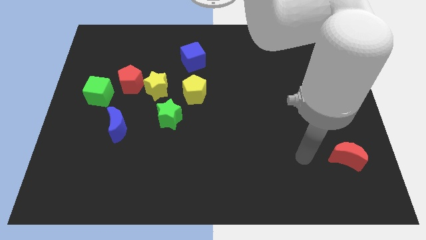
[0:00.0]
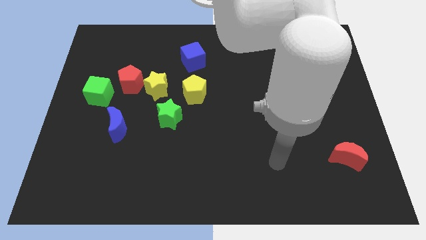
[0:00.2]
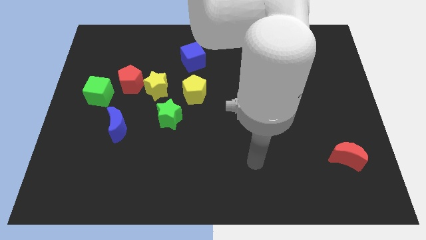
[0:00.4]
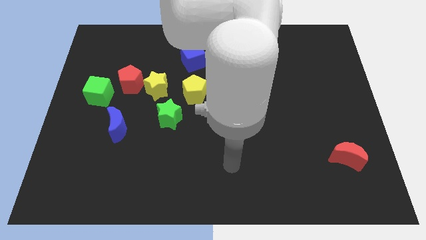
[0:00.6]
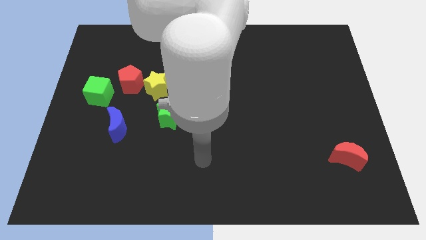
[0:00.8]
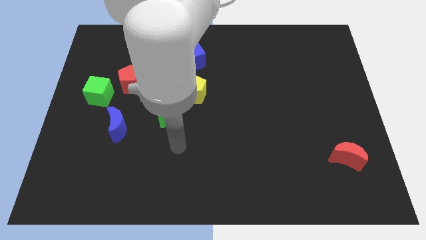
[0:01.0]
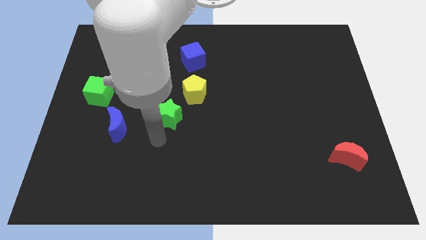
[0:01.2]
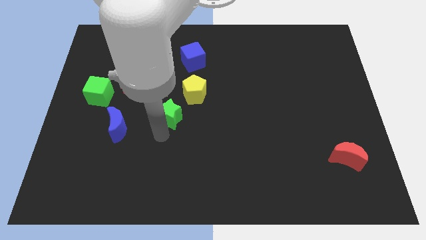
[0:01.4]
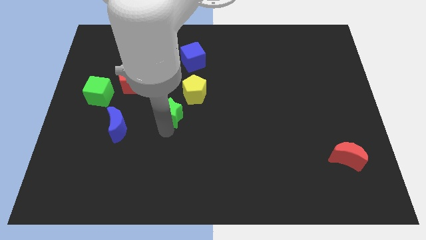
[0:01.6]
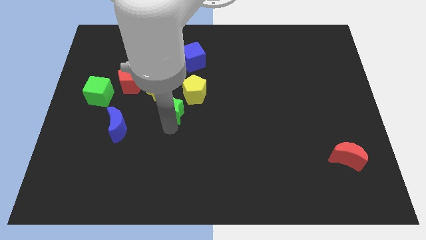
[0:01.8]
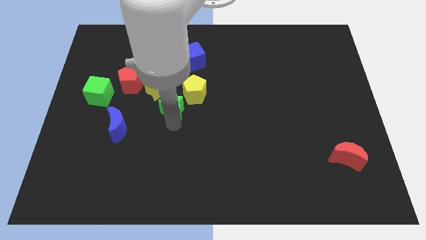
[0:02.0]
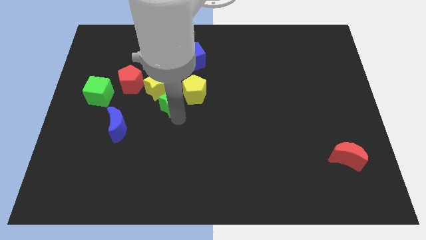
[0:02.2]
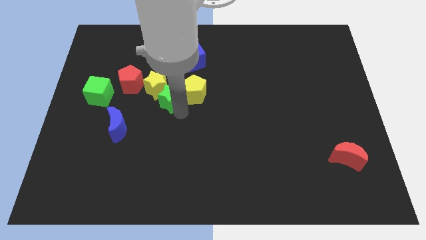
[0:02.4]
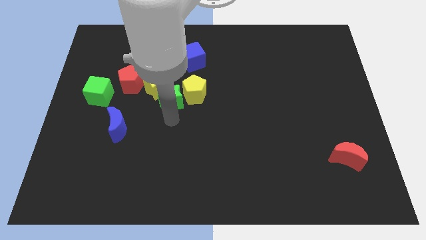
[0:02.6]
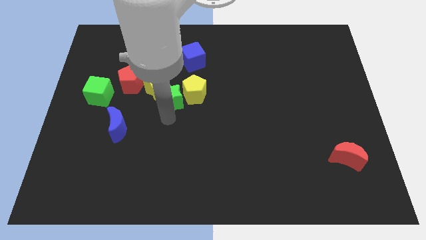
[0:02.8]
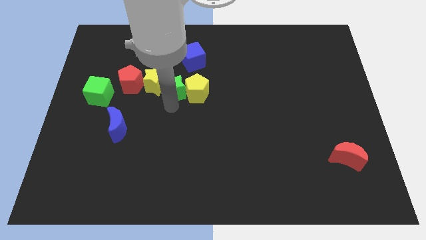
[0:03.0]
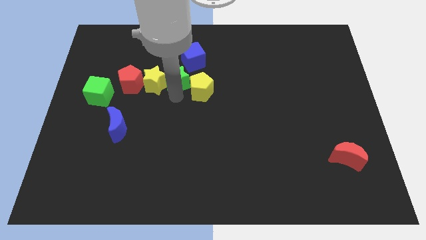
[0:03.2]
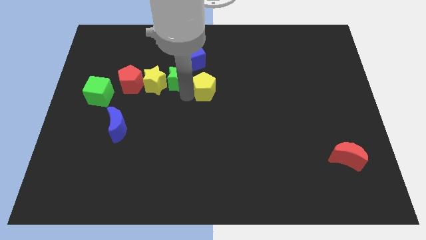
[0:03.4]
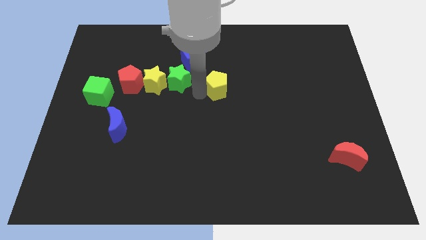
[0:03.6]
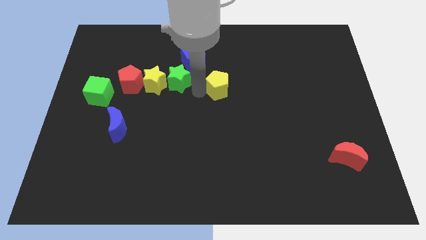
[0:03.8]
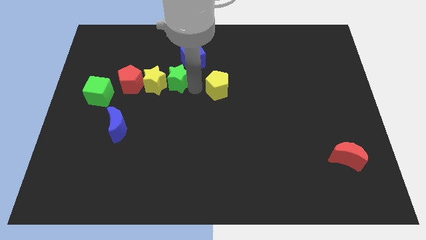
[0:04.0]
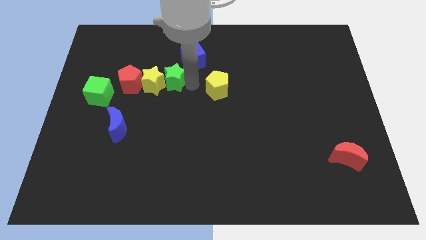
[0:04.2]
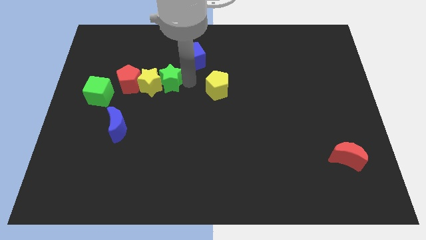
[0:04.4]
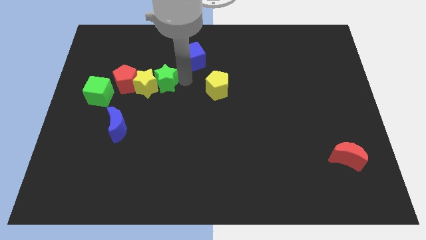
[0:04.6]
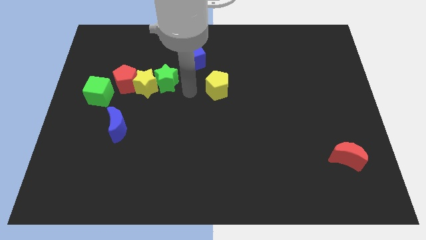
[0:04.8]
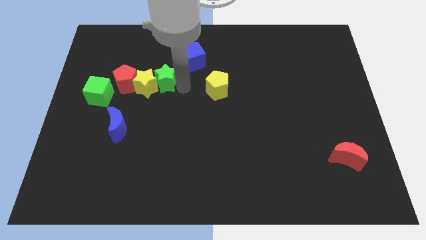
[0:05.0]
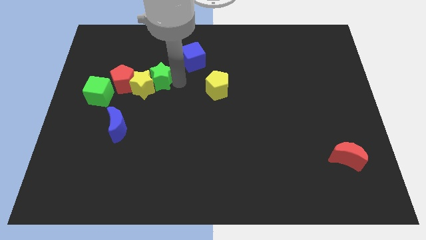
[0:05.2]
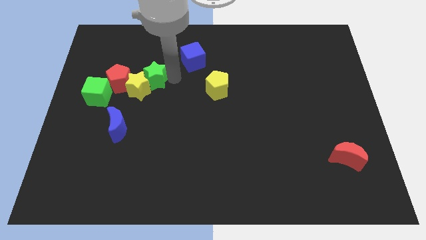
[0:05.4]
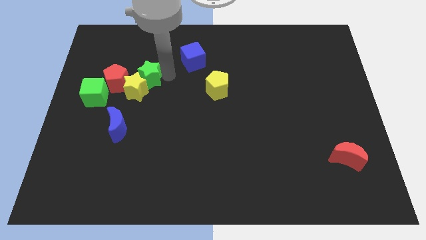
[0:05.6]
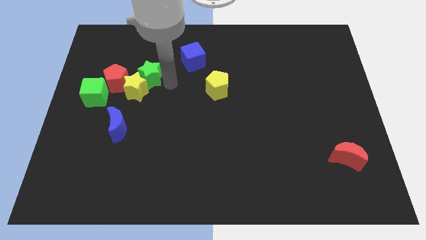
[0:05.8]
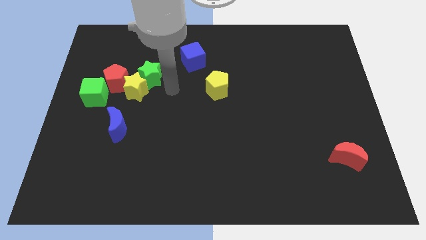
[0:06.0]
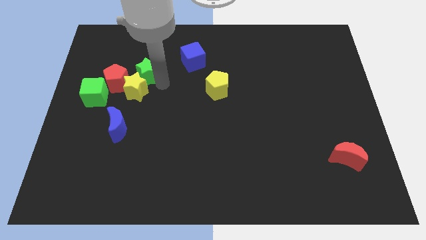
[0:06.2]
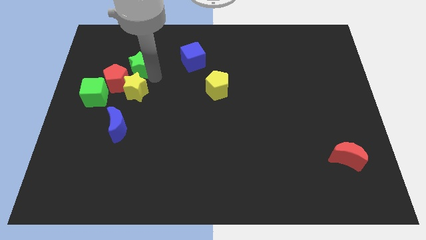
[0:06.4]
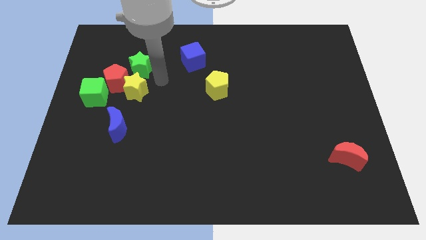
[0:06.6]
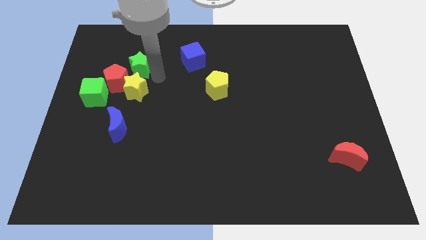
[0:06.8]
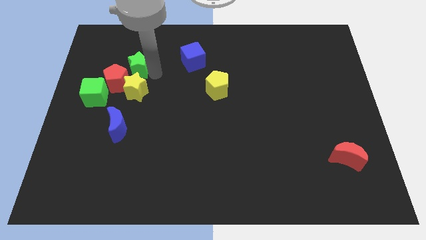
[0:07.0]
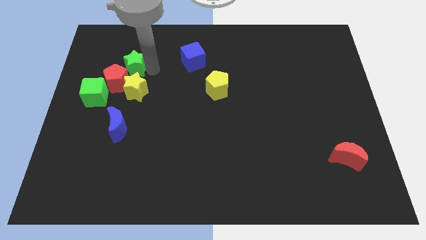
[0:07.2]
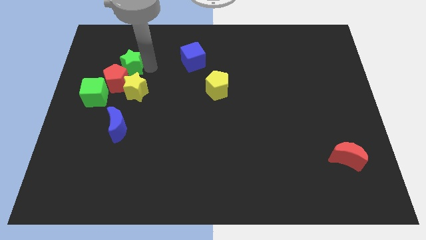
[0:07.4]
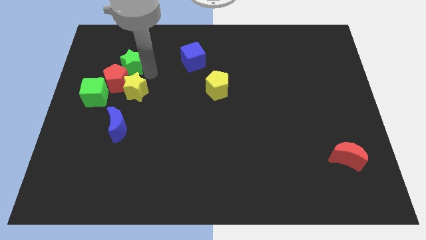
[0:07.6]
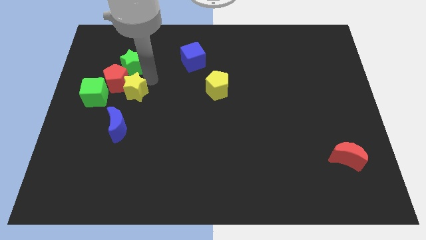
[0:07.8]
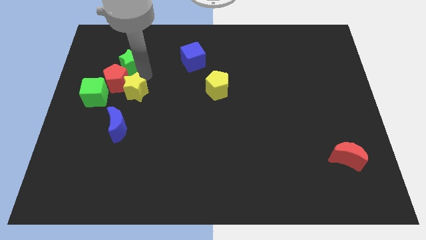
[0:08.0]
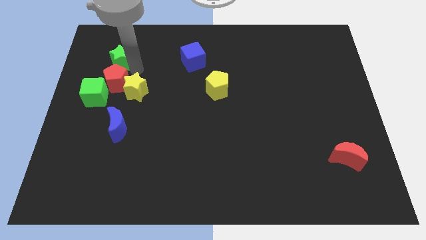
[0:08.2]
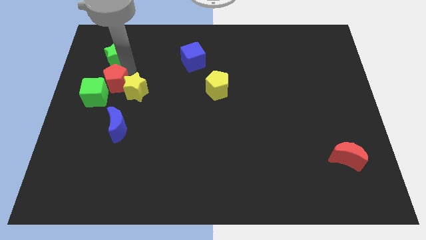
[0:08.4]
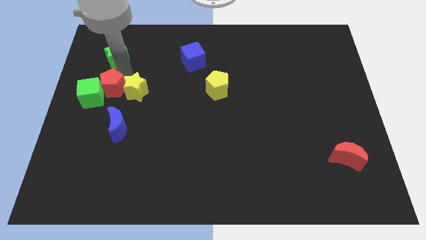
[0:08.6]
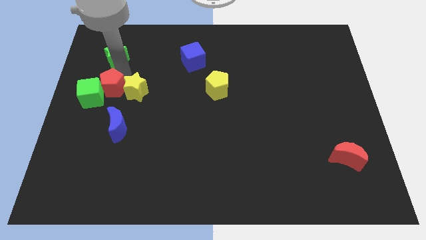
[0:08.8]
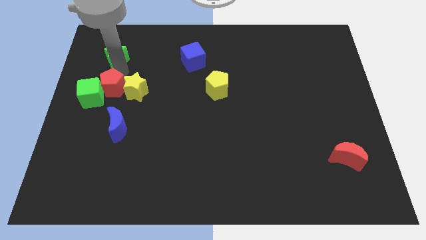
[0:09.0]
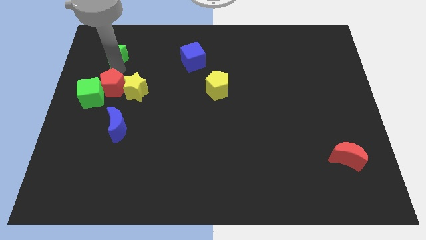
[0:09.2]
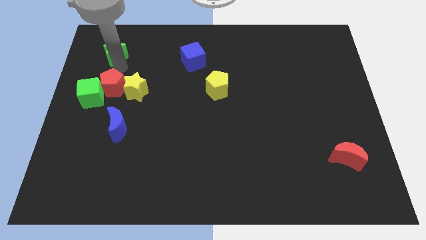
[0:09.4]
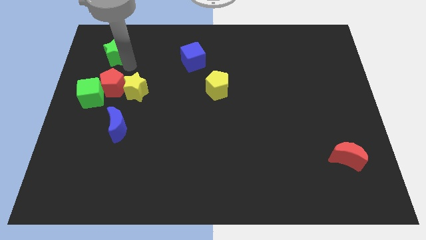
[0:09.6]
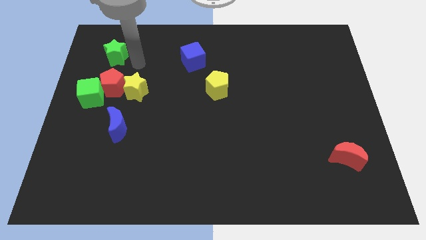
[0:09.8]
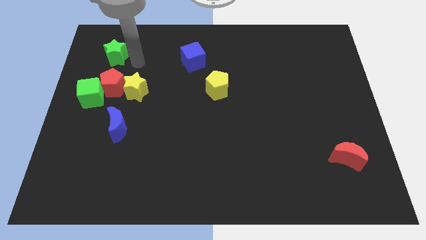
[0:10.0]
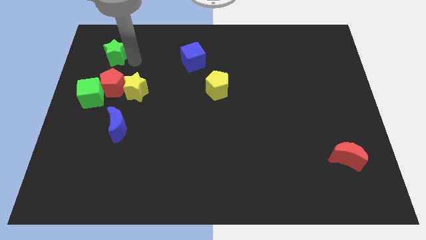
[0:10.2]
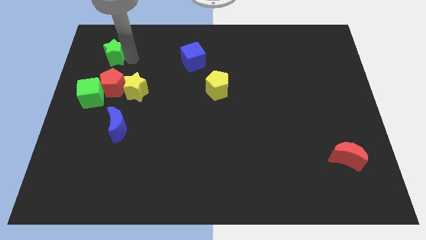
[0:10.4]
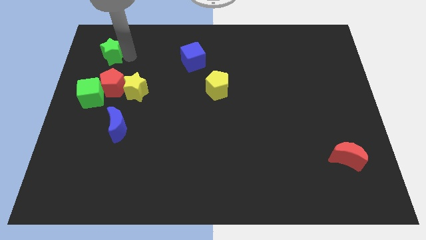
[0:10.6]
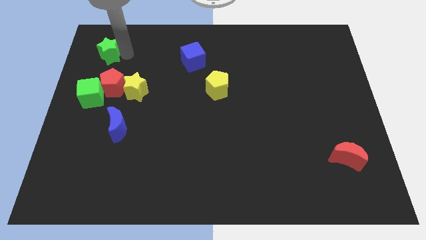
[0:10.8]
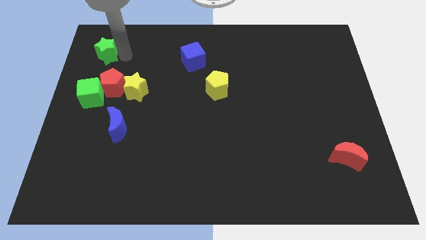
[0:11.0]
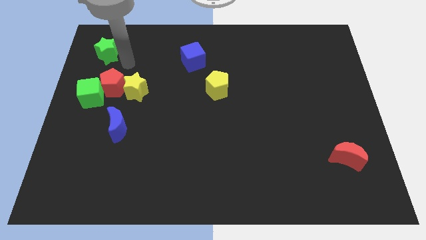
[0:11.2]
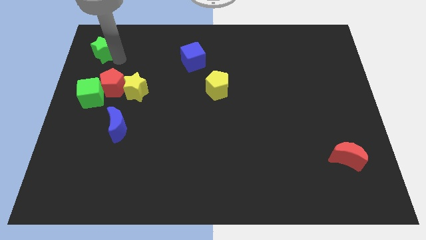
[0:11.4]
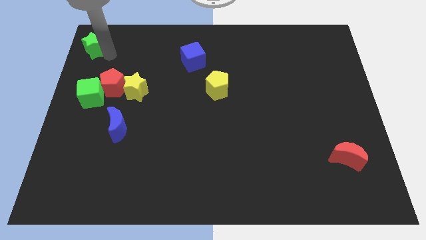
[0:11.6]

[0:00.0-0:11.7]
push the green star to the top left of the board

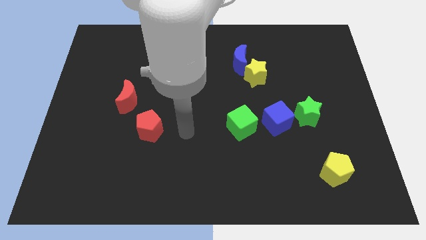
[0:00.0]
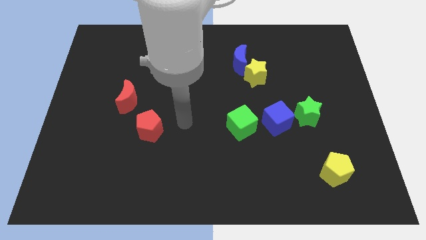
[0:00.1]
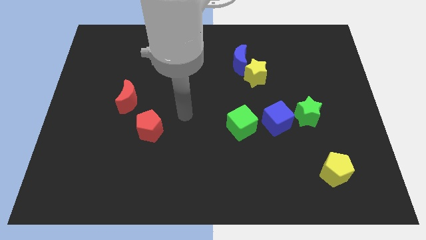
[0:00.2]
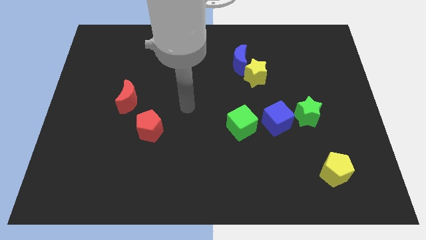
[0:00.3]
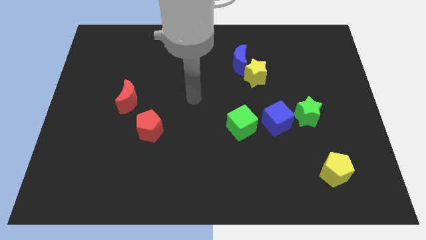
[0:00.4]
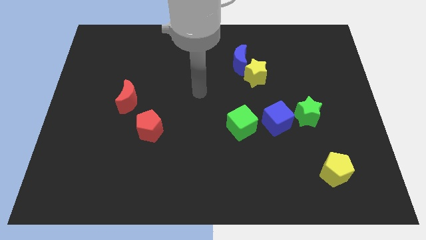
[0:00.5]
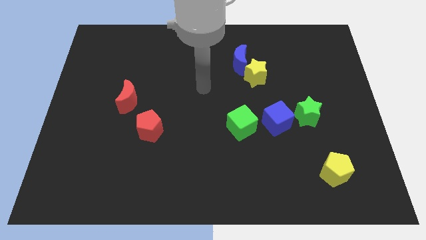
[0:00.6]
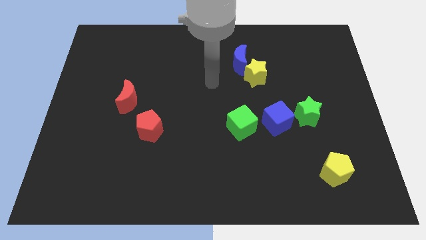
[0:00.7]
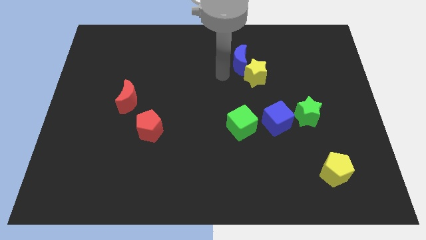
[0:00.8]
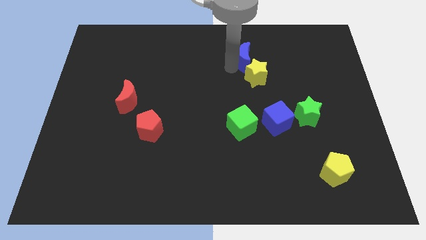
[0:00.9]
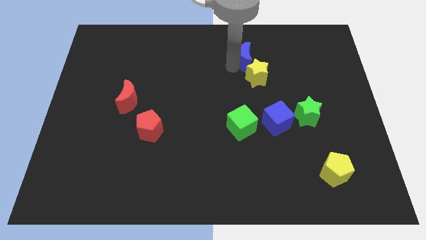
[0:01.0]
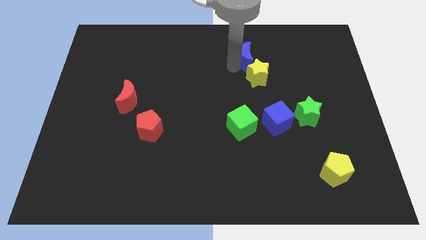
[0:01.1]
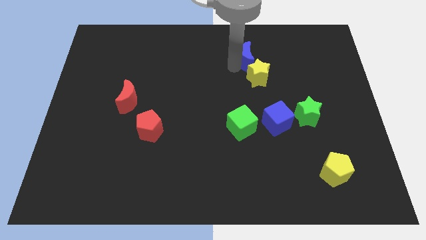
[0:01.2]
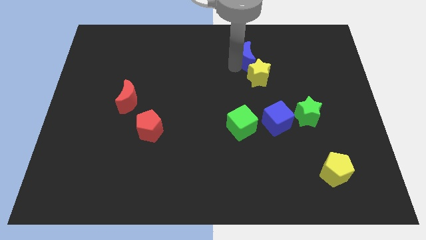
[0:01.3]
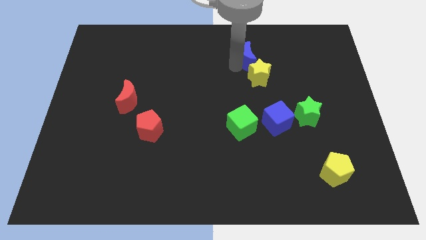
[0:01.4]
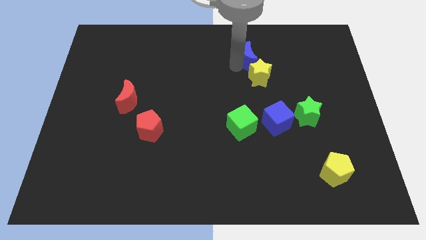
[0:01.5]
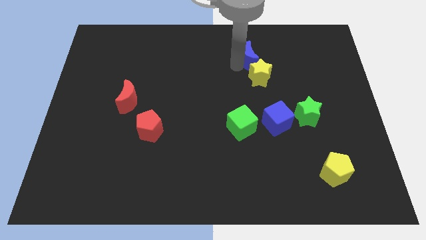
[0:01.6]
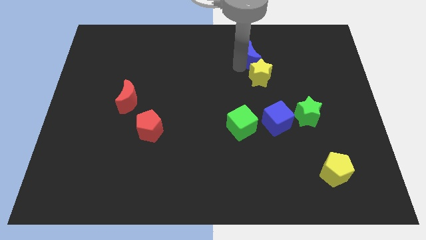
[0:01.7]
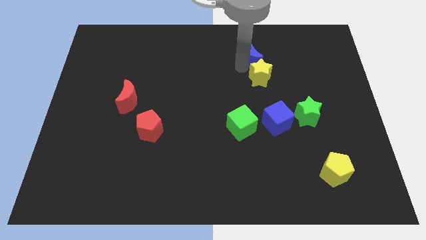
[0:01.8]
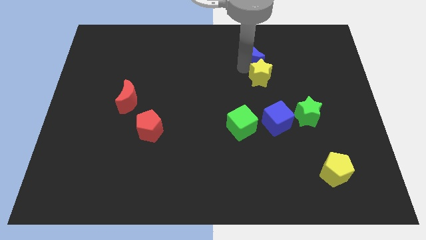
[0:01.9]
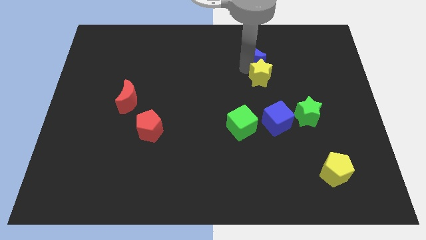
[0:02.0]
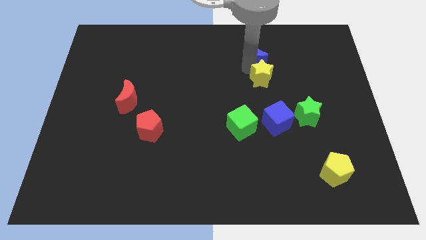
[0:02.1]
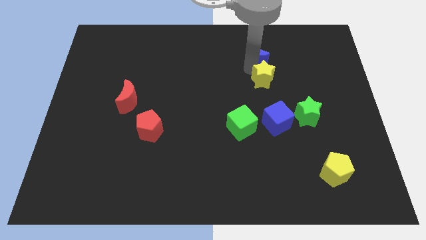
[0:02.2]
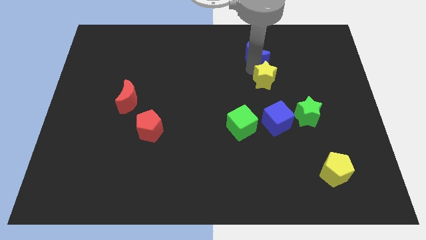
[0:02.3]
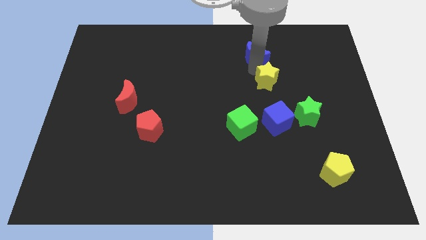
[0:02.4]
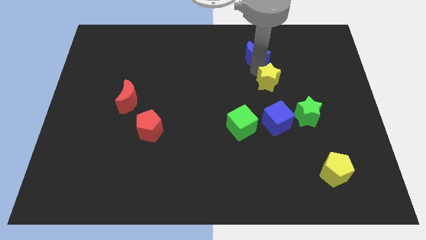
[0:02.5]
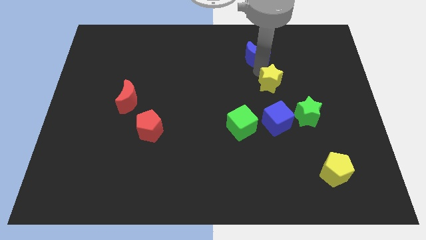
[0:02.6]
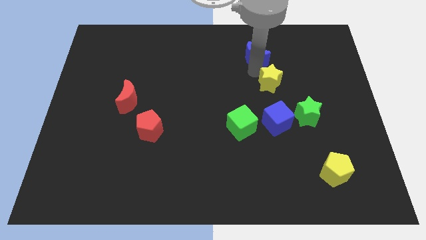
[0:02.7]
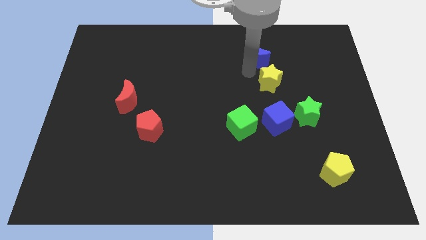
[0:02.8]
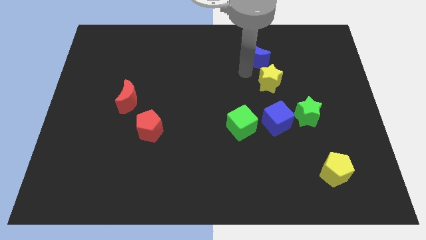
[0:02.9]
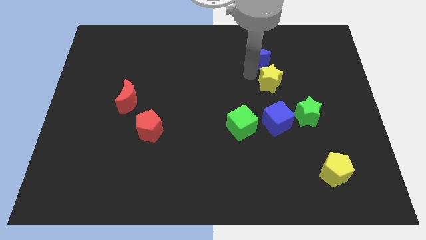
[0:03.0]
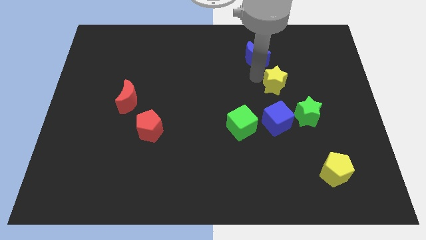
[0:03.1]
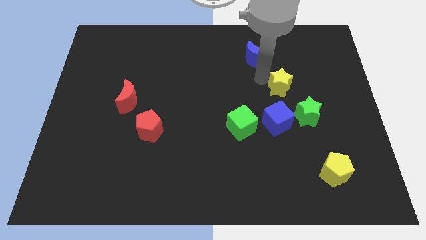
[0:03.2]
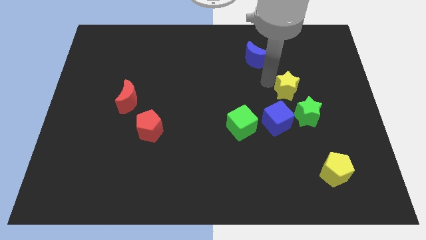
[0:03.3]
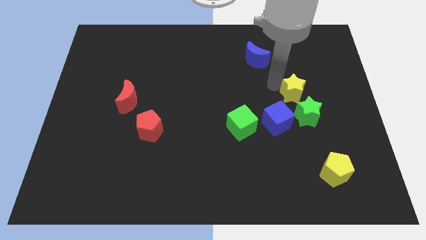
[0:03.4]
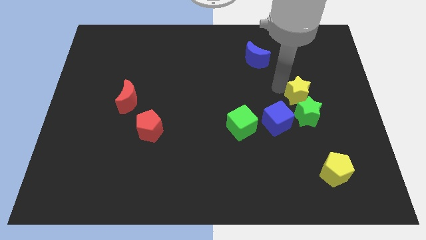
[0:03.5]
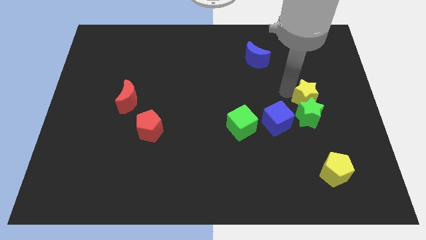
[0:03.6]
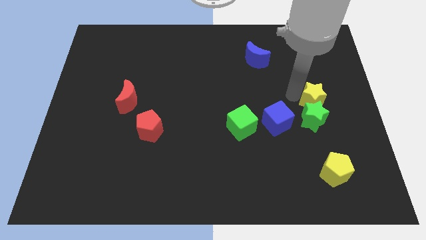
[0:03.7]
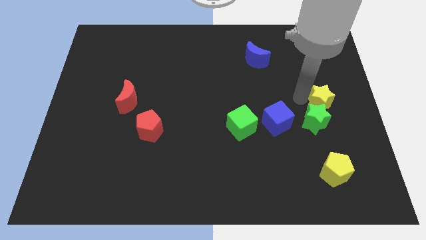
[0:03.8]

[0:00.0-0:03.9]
slide the yellow star to the center right
